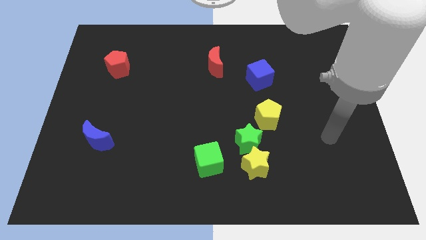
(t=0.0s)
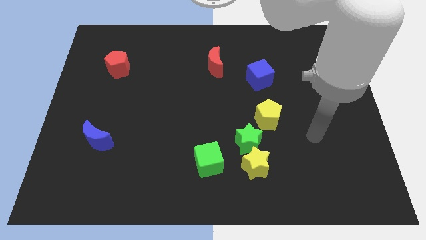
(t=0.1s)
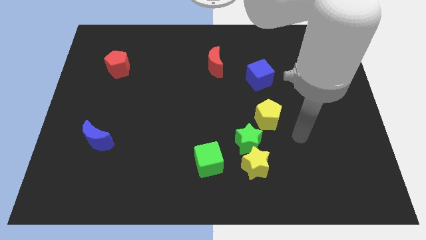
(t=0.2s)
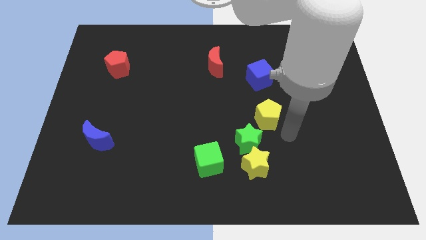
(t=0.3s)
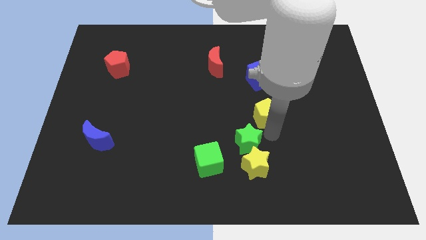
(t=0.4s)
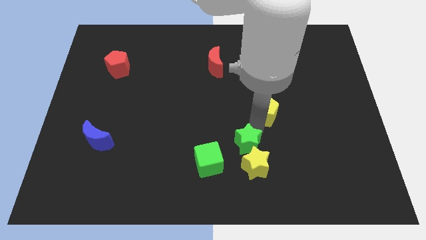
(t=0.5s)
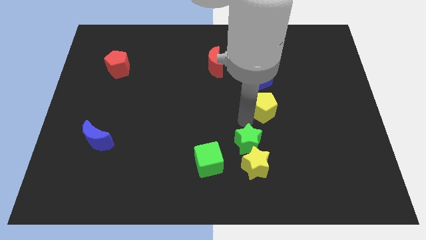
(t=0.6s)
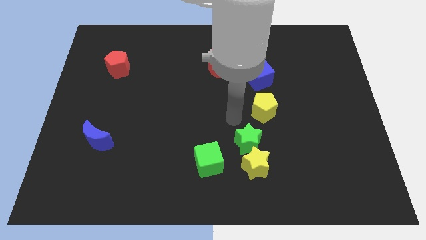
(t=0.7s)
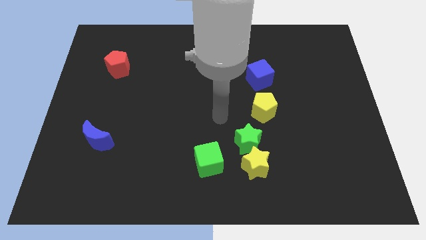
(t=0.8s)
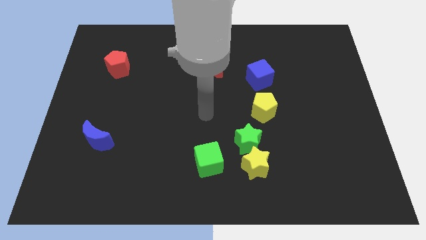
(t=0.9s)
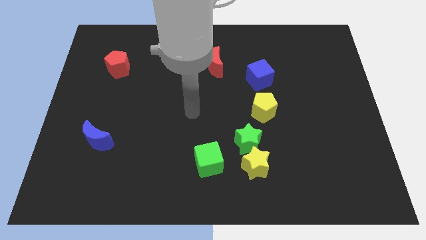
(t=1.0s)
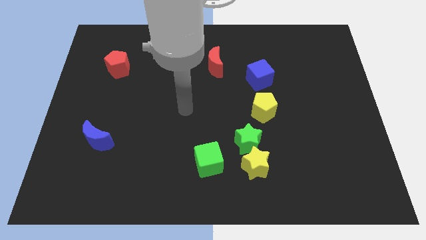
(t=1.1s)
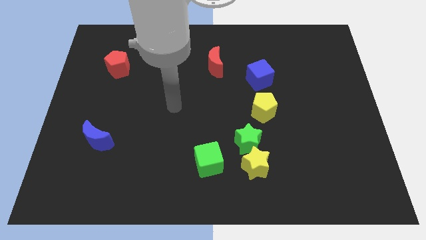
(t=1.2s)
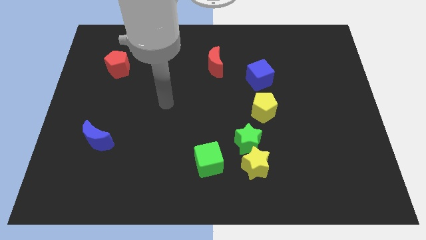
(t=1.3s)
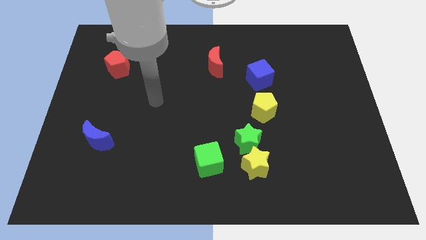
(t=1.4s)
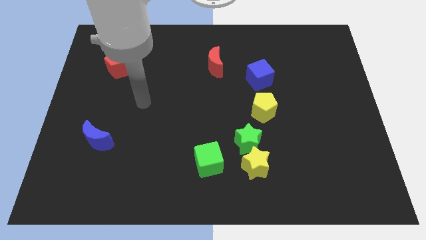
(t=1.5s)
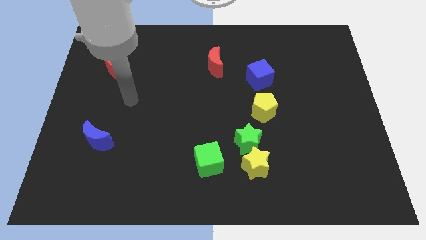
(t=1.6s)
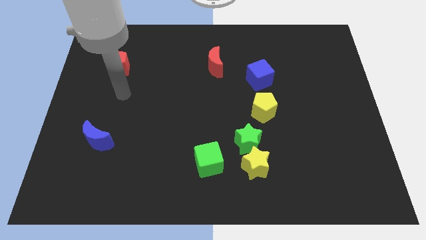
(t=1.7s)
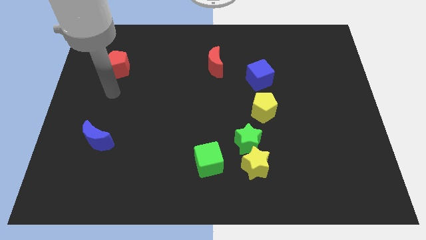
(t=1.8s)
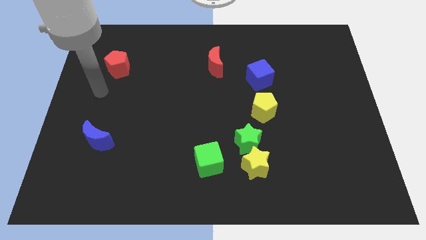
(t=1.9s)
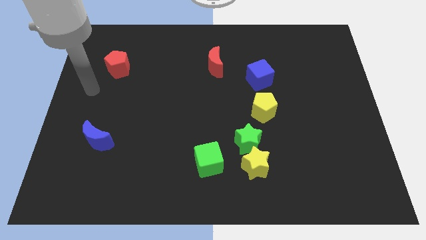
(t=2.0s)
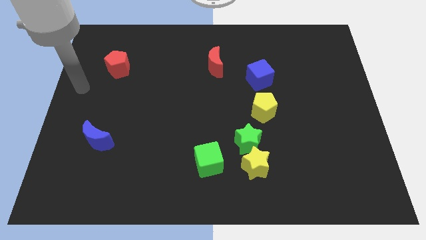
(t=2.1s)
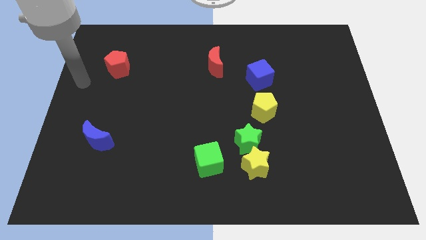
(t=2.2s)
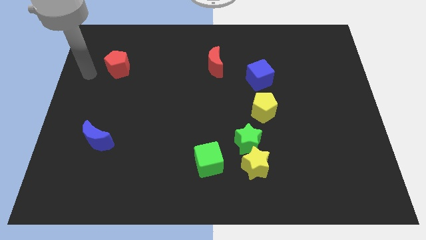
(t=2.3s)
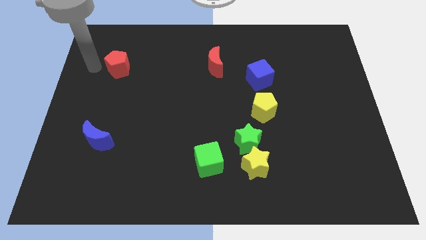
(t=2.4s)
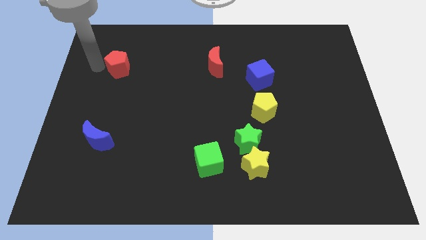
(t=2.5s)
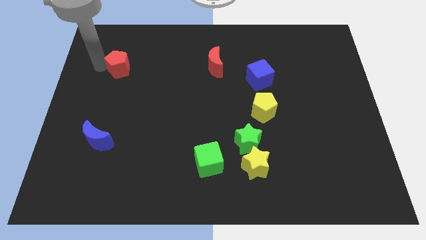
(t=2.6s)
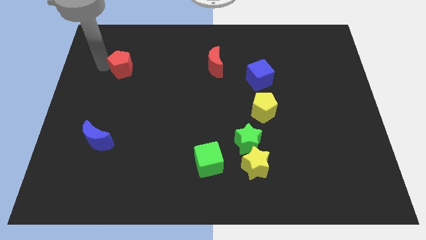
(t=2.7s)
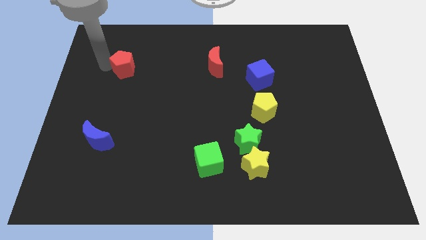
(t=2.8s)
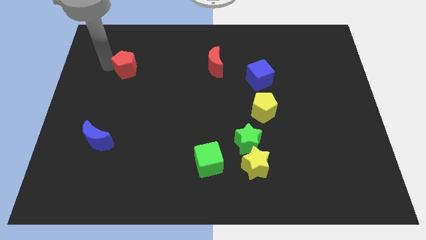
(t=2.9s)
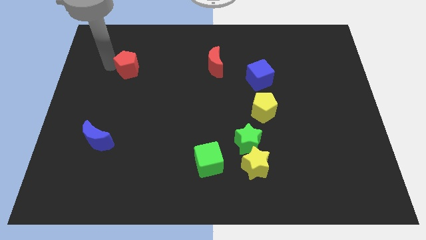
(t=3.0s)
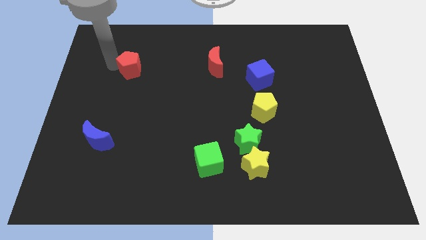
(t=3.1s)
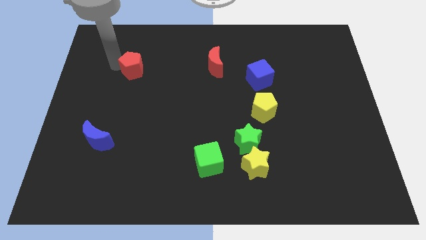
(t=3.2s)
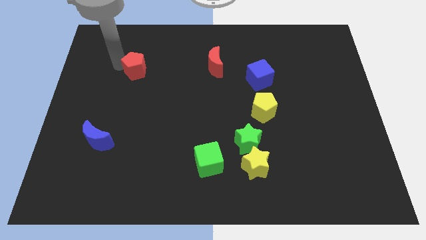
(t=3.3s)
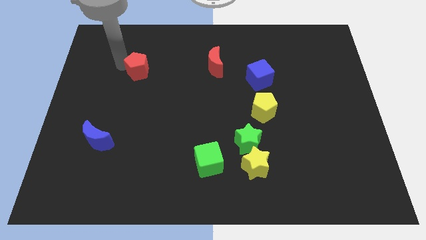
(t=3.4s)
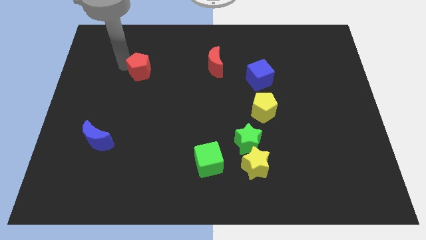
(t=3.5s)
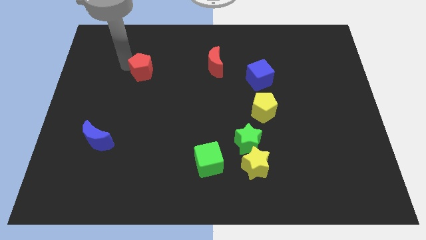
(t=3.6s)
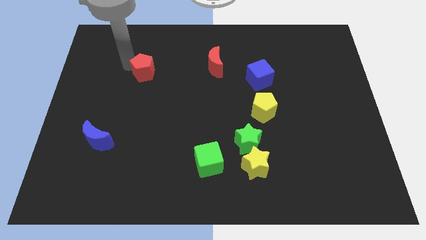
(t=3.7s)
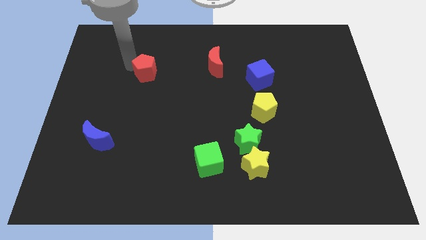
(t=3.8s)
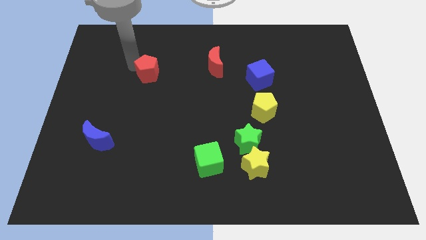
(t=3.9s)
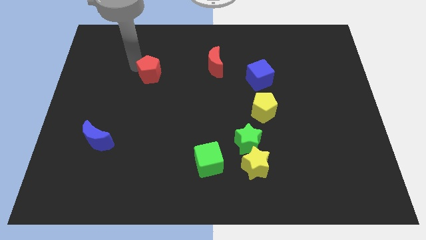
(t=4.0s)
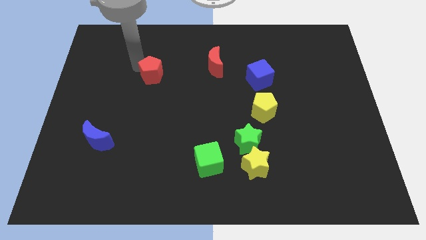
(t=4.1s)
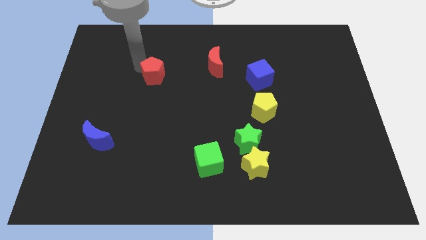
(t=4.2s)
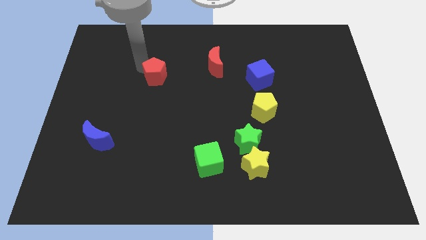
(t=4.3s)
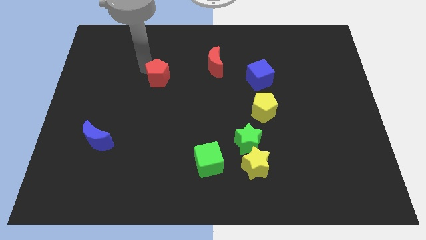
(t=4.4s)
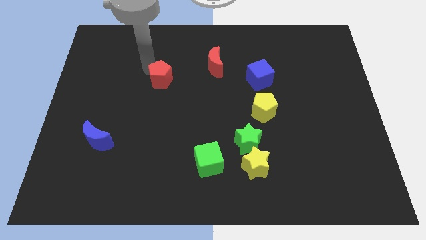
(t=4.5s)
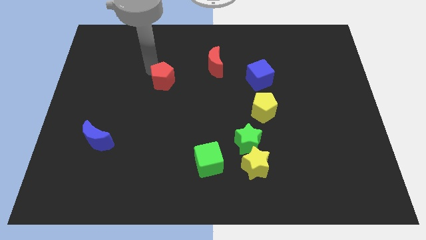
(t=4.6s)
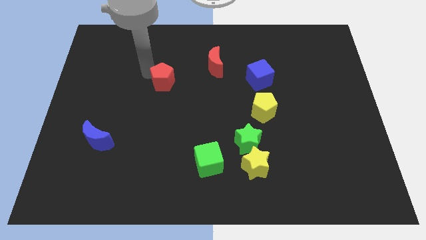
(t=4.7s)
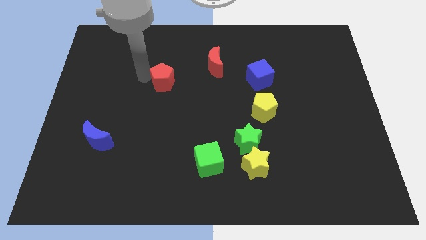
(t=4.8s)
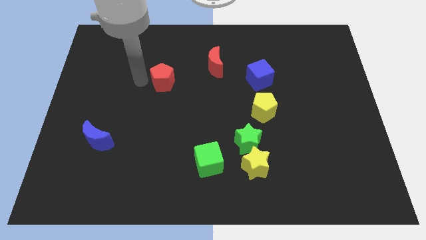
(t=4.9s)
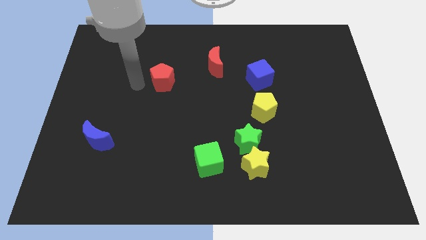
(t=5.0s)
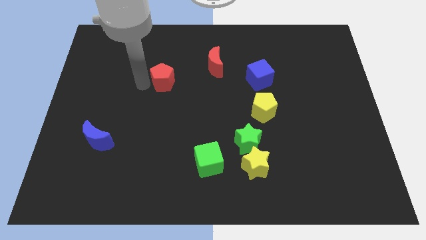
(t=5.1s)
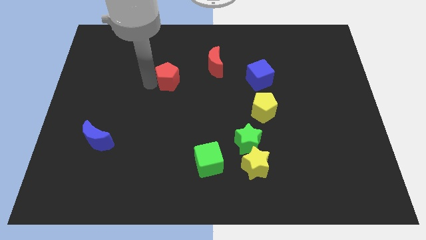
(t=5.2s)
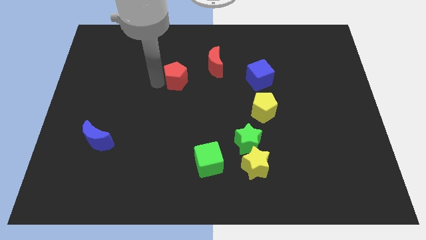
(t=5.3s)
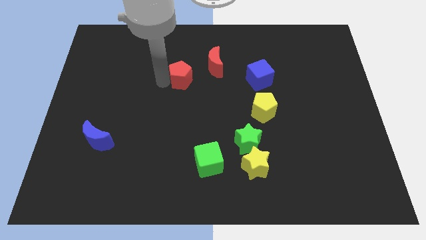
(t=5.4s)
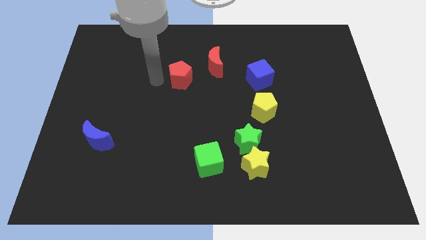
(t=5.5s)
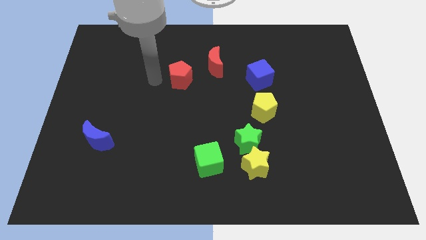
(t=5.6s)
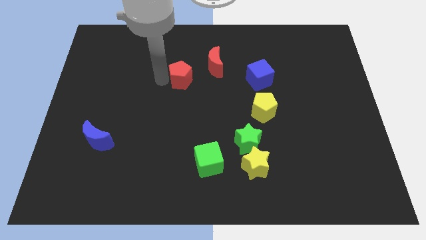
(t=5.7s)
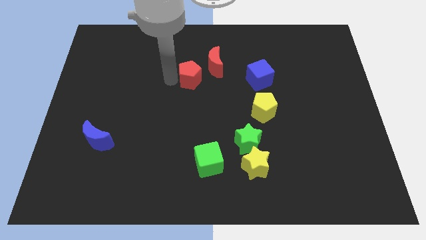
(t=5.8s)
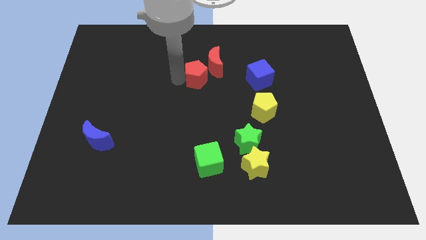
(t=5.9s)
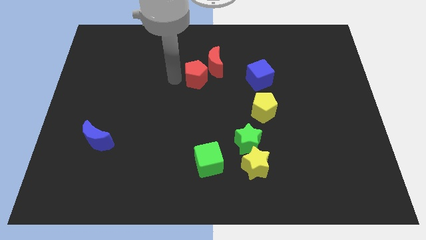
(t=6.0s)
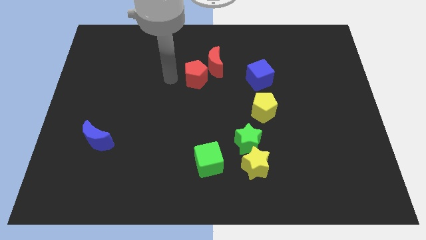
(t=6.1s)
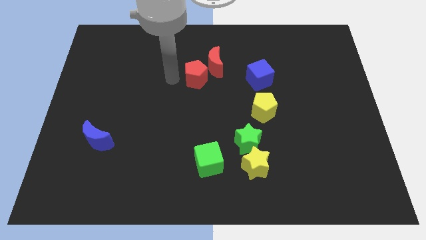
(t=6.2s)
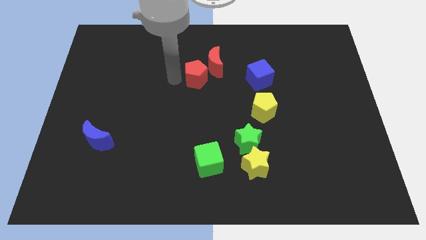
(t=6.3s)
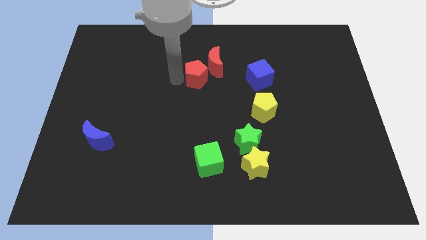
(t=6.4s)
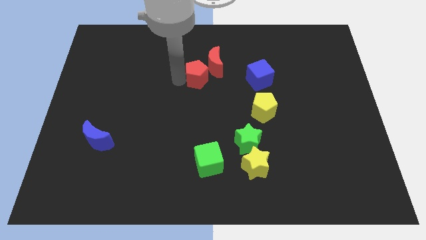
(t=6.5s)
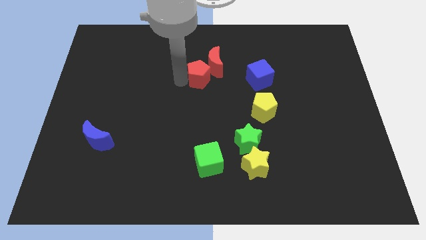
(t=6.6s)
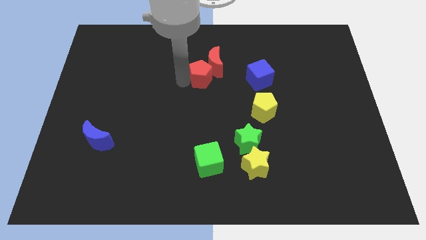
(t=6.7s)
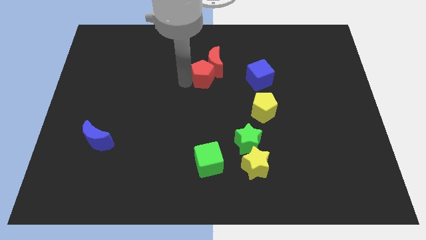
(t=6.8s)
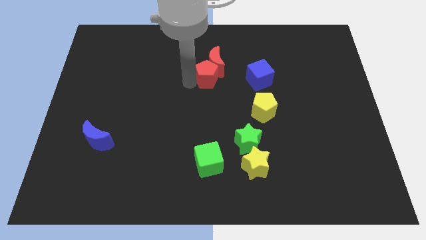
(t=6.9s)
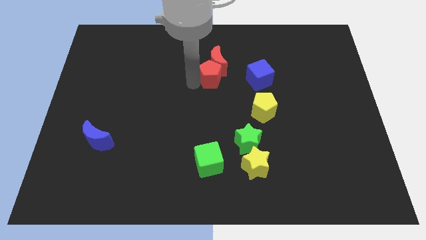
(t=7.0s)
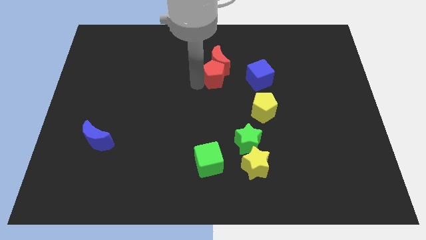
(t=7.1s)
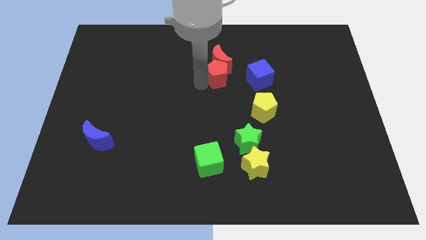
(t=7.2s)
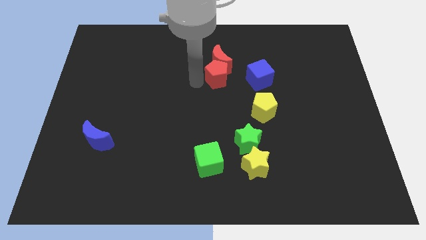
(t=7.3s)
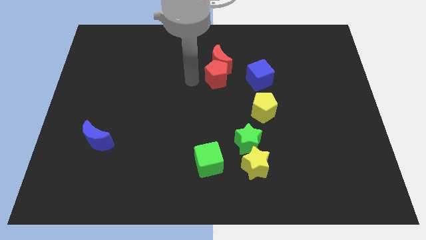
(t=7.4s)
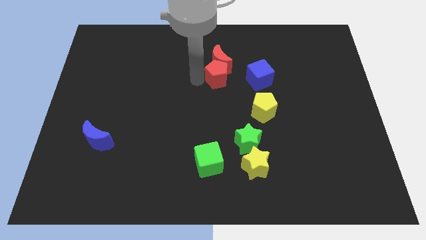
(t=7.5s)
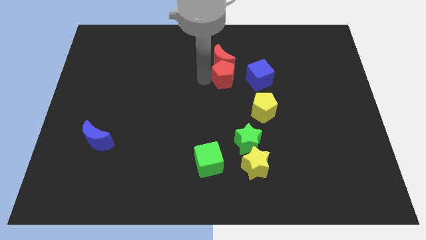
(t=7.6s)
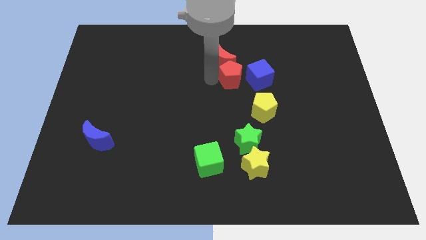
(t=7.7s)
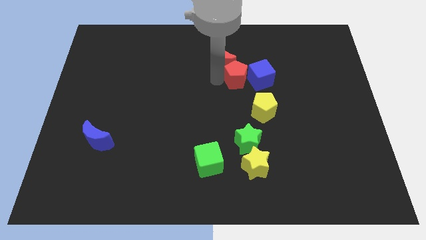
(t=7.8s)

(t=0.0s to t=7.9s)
put the red pentagon to the blue cube
